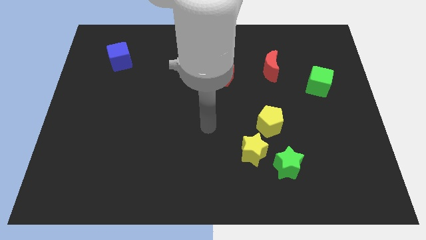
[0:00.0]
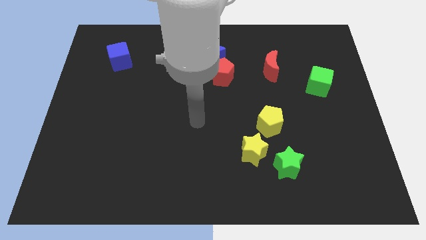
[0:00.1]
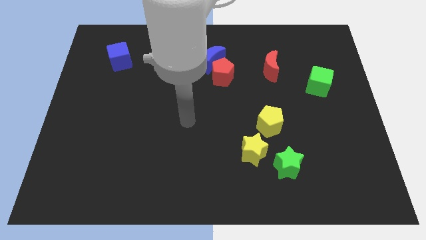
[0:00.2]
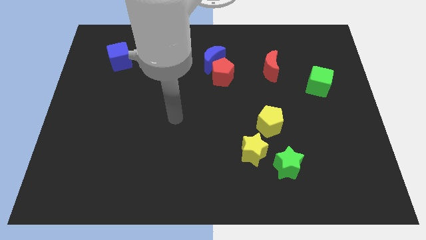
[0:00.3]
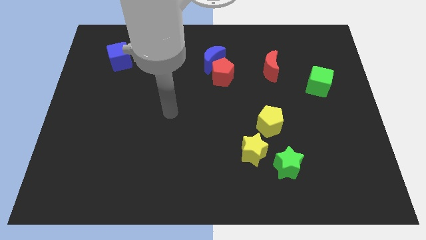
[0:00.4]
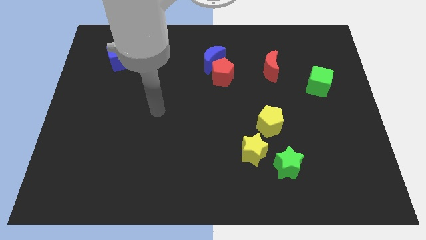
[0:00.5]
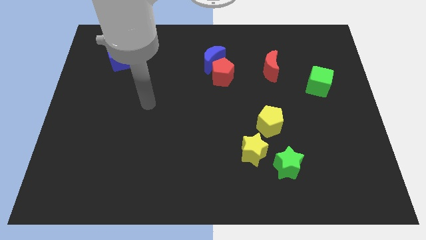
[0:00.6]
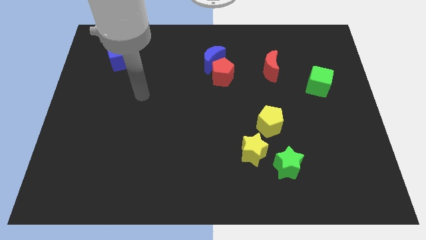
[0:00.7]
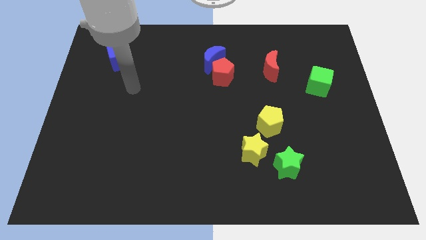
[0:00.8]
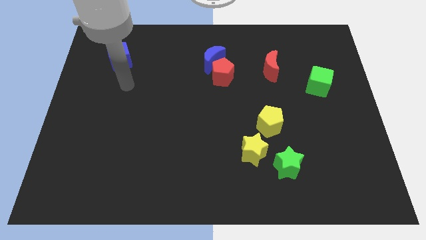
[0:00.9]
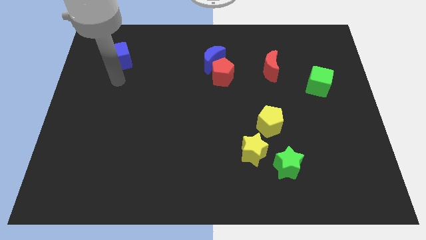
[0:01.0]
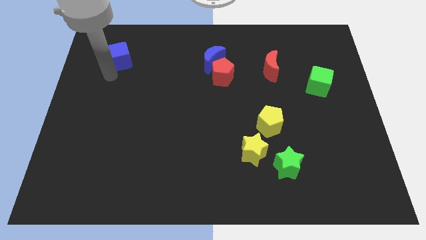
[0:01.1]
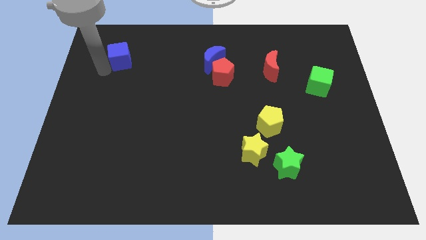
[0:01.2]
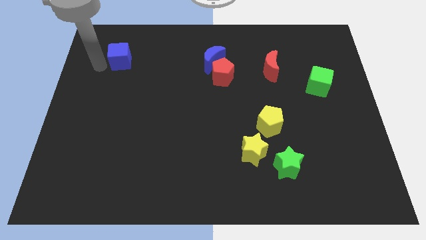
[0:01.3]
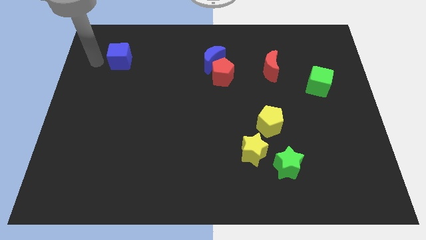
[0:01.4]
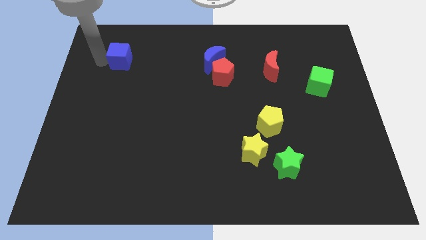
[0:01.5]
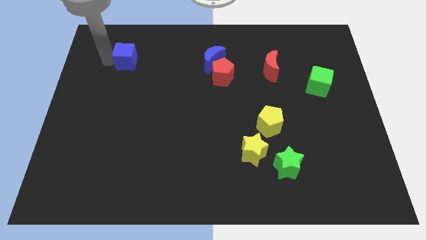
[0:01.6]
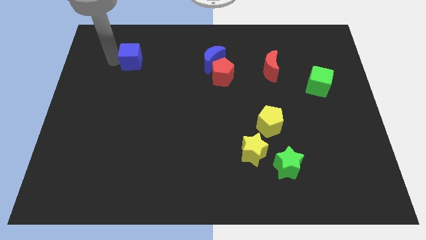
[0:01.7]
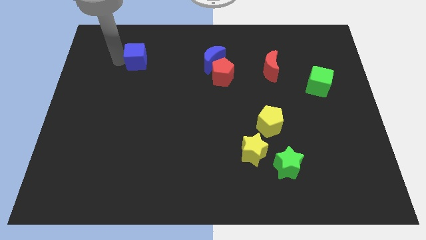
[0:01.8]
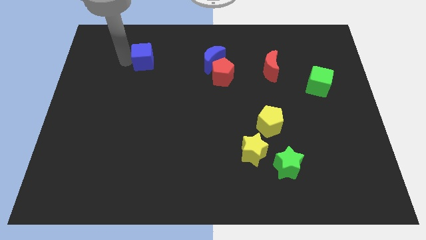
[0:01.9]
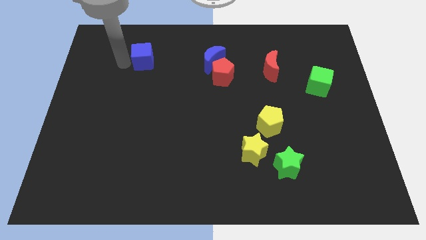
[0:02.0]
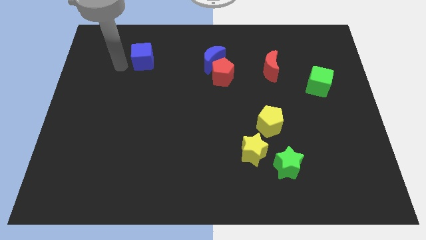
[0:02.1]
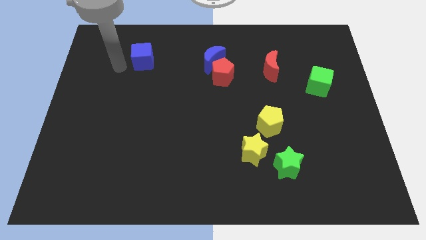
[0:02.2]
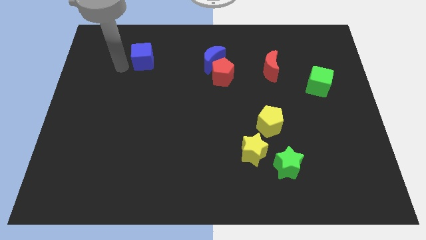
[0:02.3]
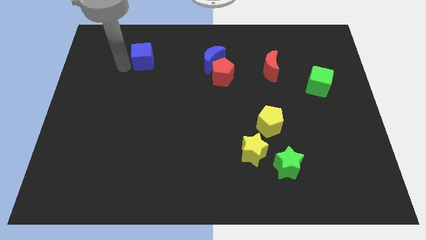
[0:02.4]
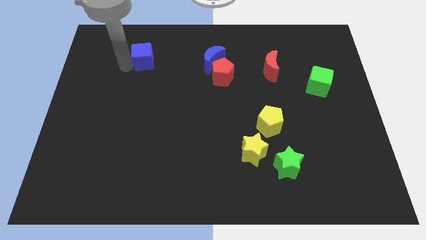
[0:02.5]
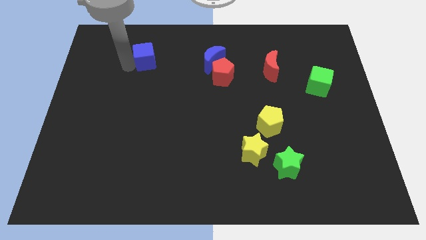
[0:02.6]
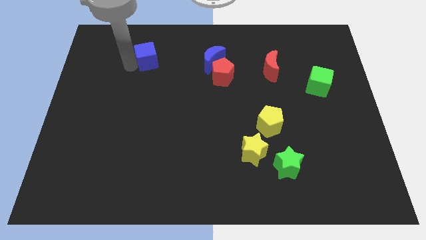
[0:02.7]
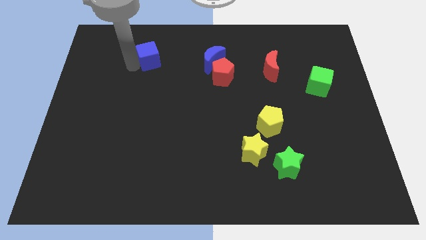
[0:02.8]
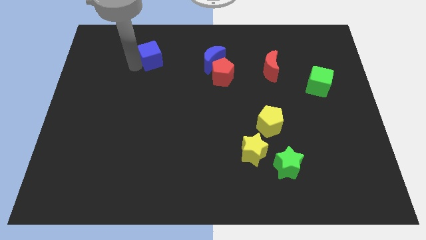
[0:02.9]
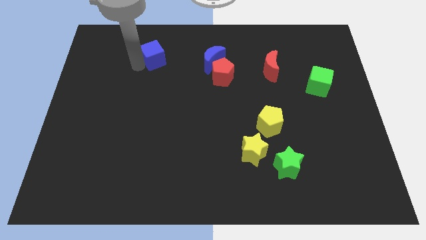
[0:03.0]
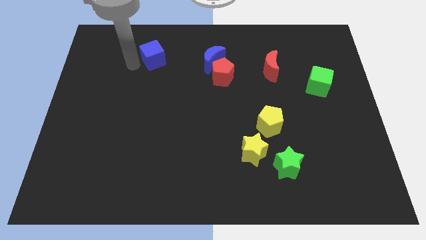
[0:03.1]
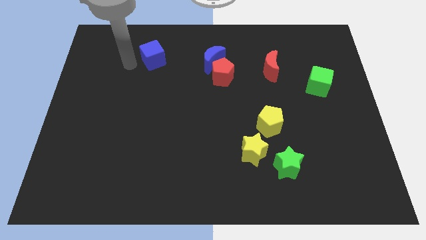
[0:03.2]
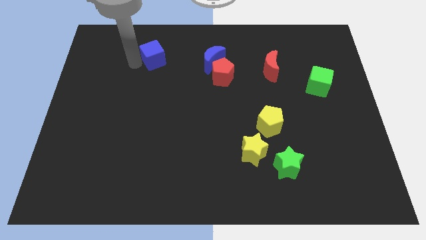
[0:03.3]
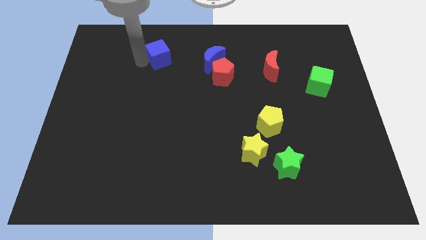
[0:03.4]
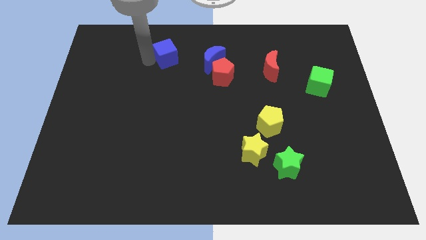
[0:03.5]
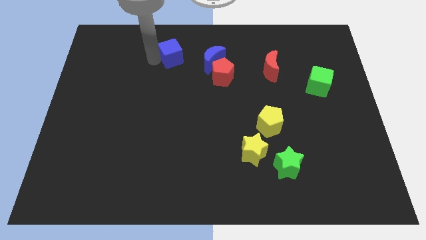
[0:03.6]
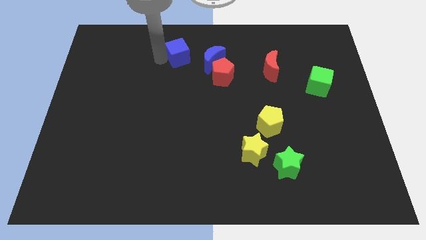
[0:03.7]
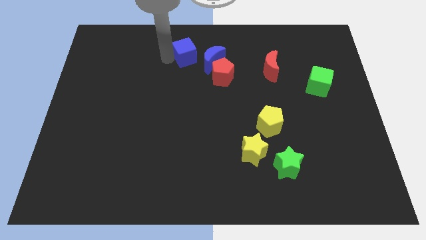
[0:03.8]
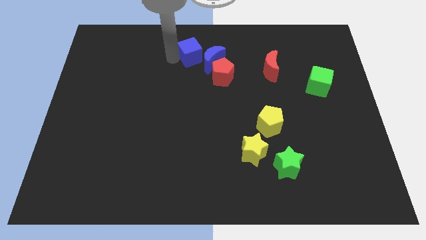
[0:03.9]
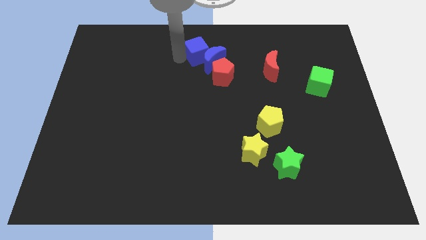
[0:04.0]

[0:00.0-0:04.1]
move the blue cube to the right

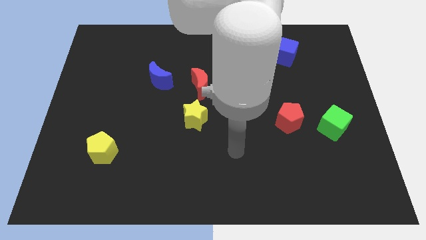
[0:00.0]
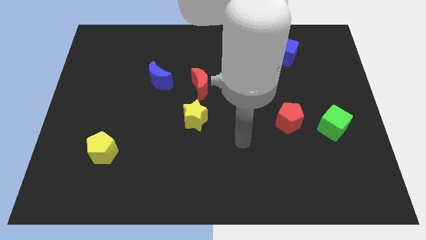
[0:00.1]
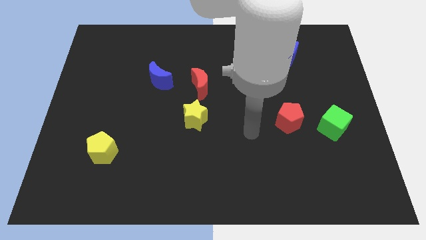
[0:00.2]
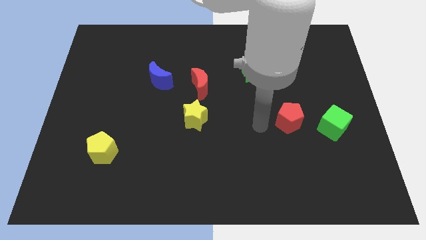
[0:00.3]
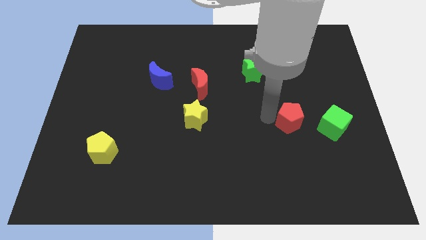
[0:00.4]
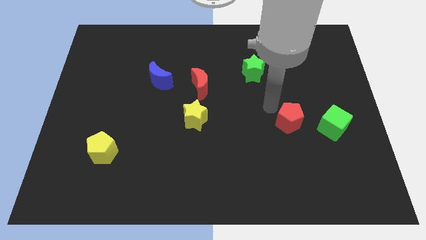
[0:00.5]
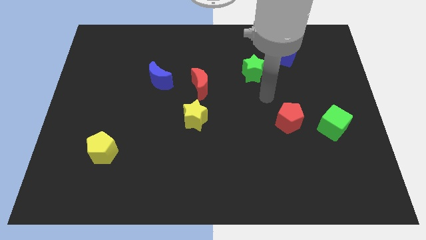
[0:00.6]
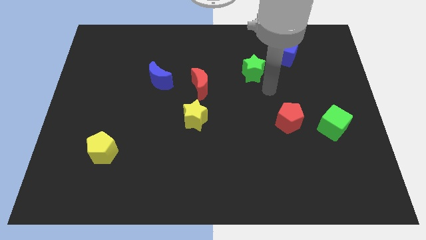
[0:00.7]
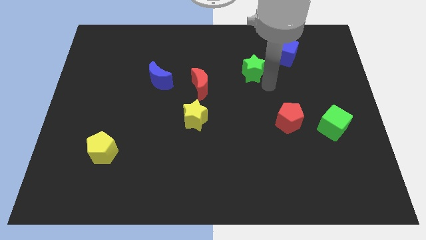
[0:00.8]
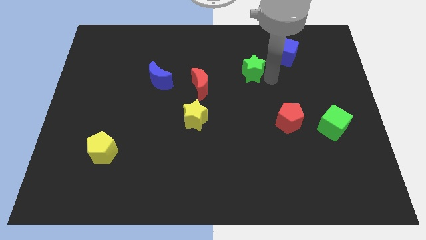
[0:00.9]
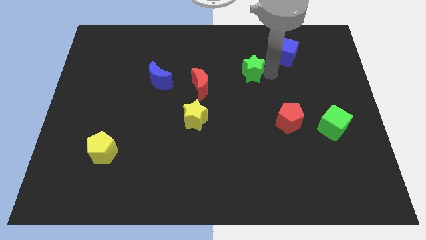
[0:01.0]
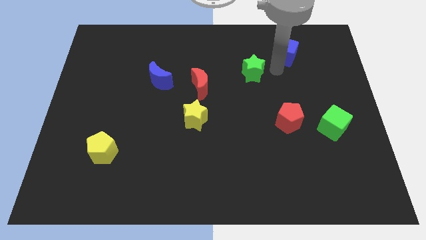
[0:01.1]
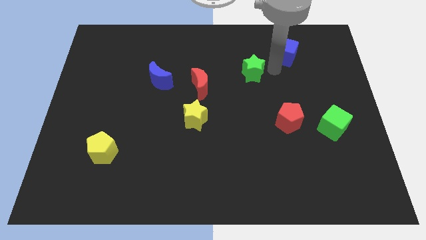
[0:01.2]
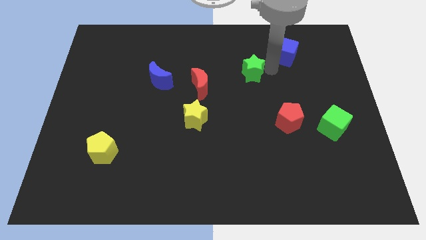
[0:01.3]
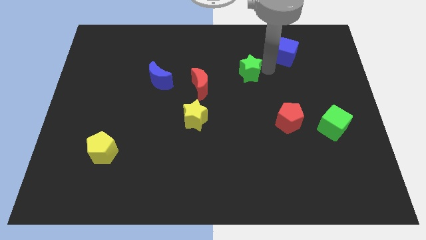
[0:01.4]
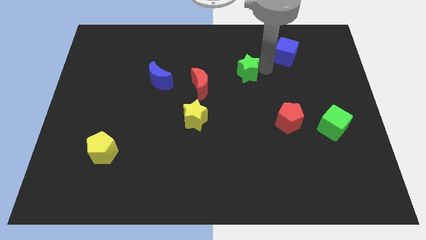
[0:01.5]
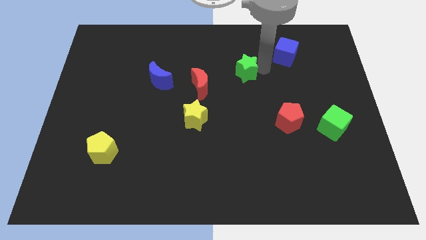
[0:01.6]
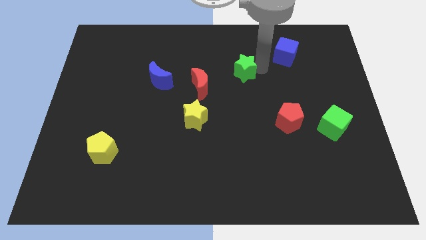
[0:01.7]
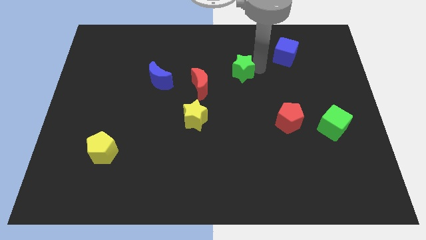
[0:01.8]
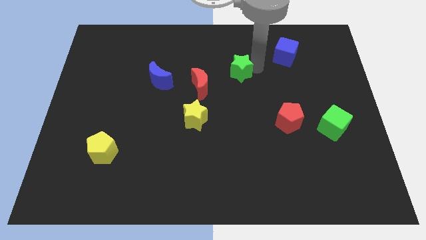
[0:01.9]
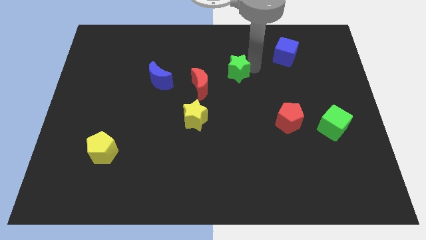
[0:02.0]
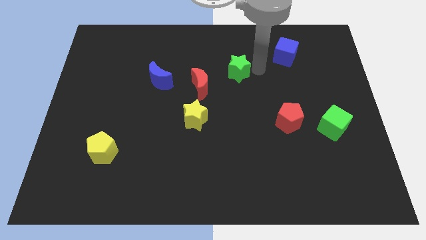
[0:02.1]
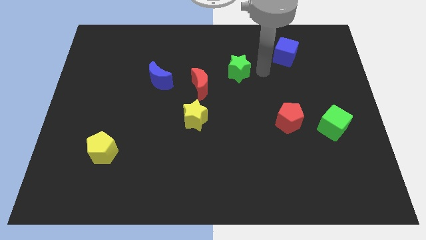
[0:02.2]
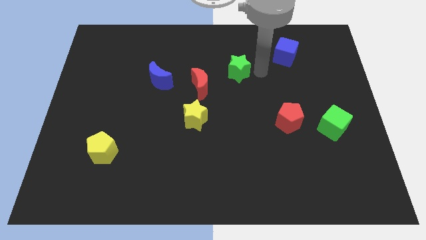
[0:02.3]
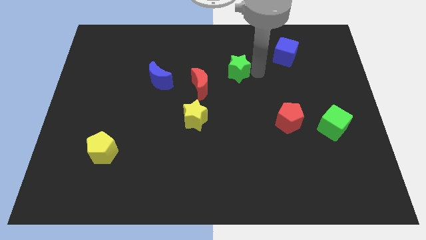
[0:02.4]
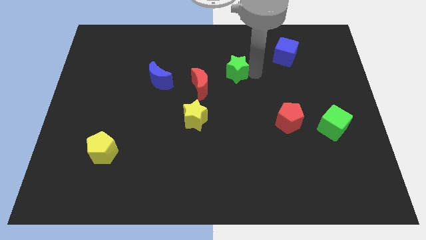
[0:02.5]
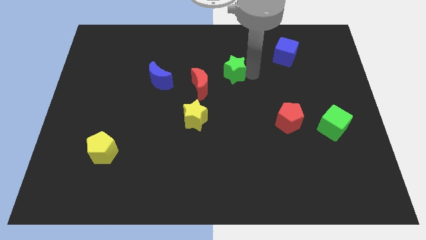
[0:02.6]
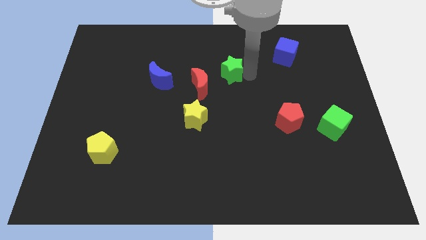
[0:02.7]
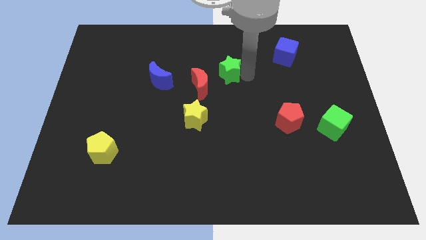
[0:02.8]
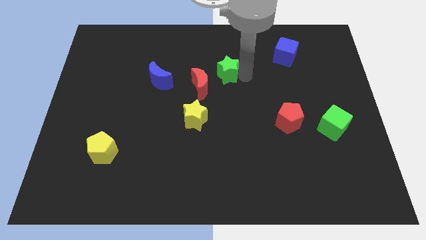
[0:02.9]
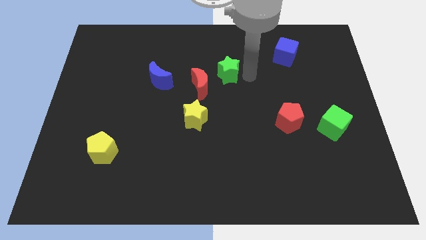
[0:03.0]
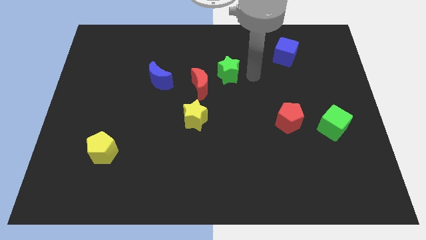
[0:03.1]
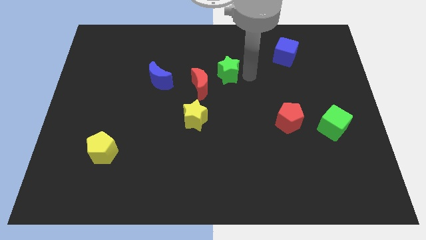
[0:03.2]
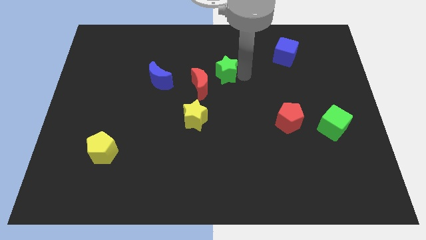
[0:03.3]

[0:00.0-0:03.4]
slightly slide the green star to the left

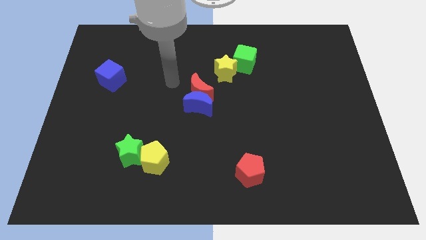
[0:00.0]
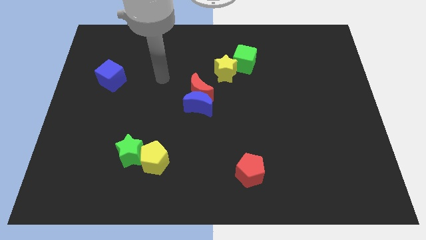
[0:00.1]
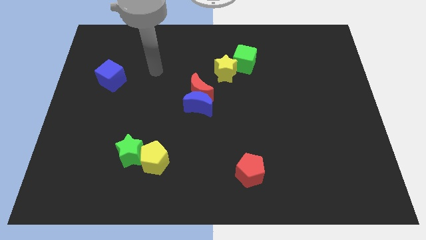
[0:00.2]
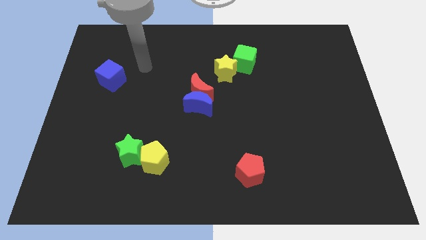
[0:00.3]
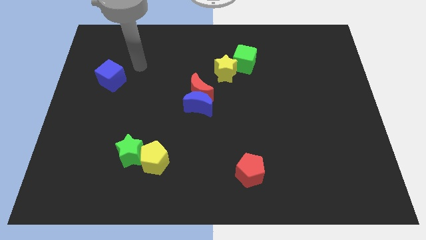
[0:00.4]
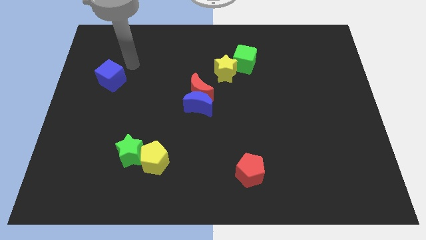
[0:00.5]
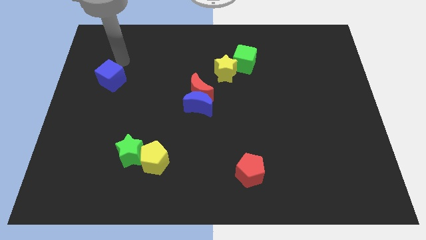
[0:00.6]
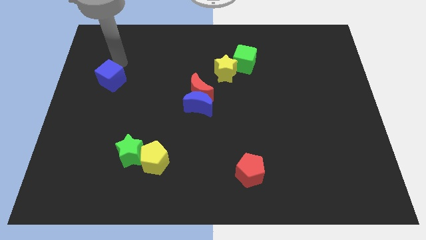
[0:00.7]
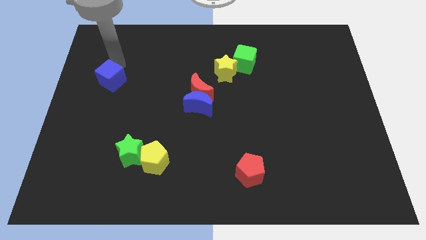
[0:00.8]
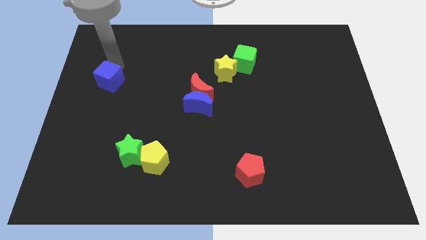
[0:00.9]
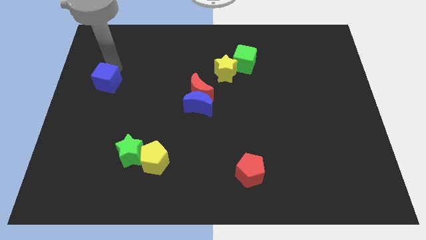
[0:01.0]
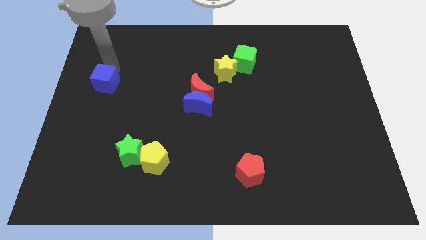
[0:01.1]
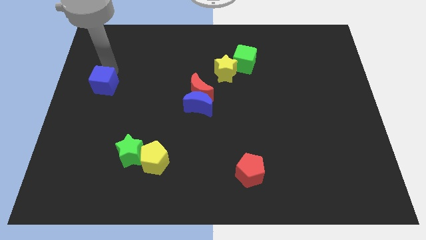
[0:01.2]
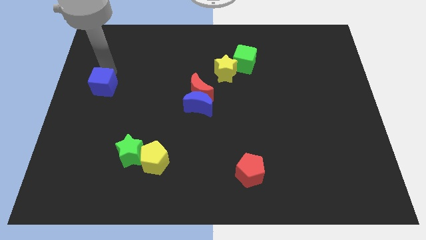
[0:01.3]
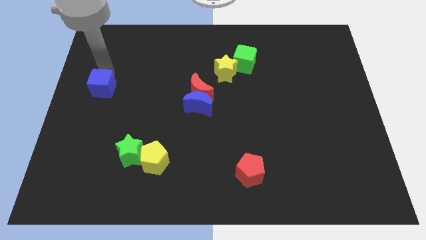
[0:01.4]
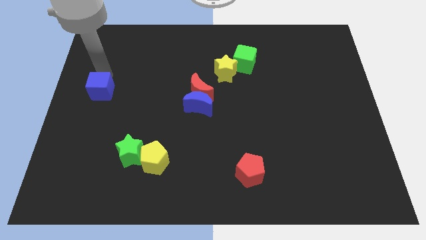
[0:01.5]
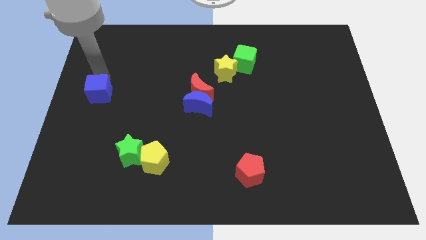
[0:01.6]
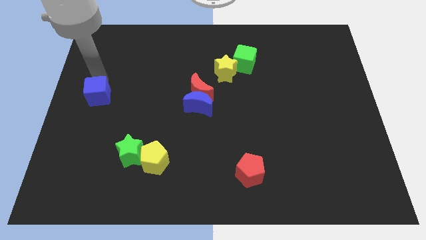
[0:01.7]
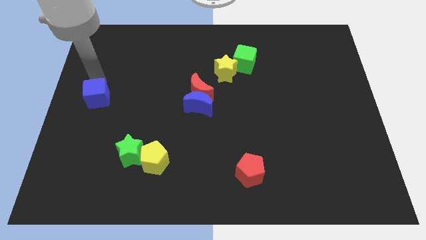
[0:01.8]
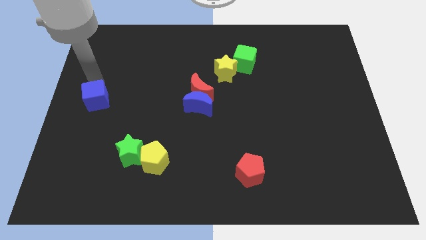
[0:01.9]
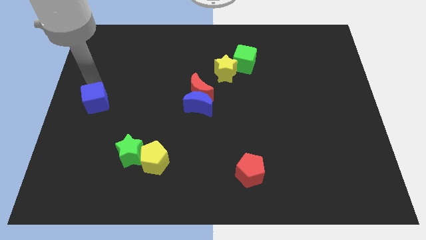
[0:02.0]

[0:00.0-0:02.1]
move the blue cube downwards a bit
